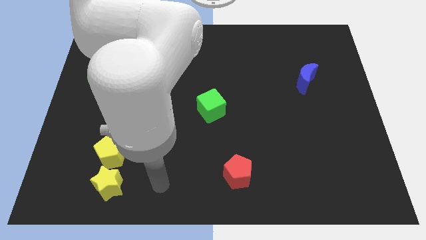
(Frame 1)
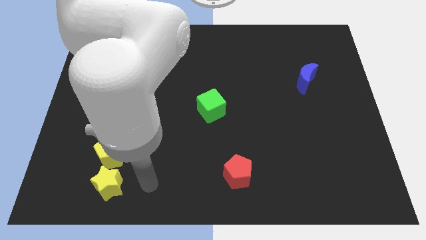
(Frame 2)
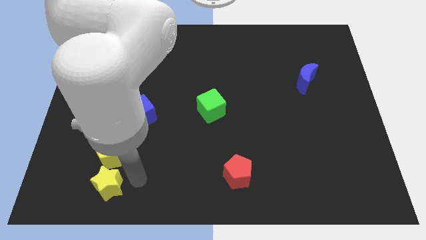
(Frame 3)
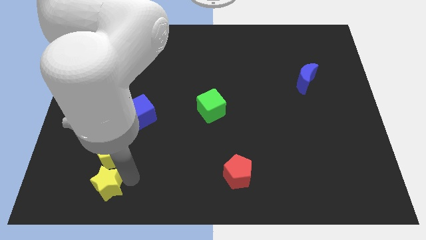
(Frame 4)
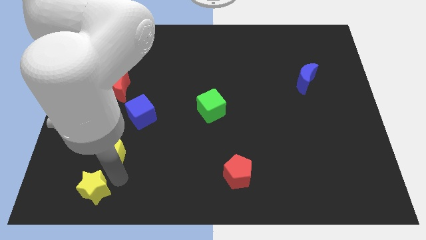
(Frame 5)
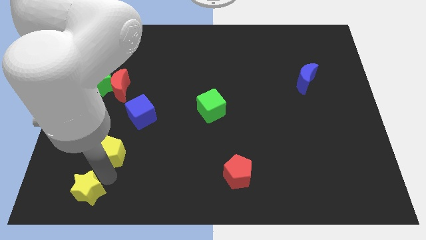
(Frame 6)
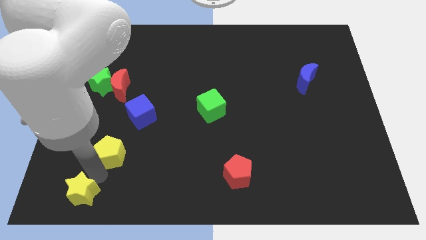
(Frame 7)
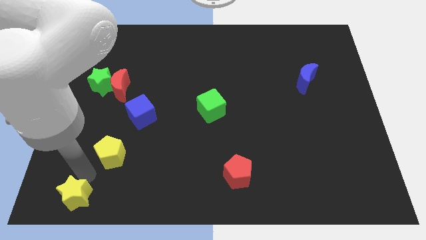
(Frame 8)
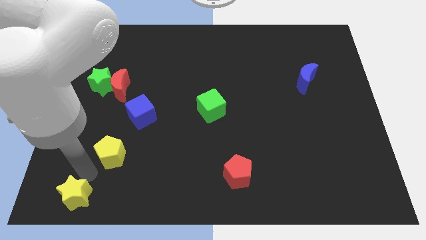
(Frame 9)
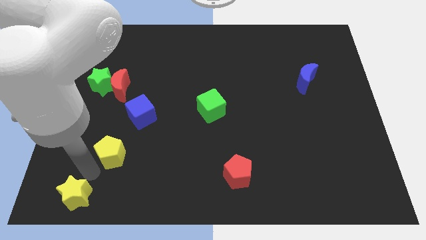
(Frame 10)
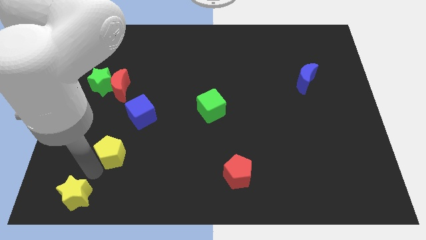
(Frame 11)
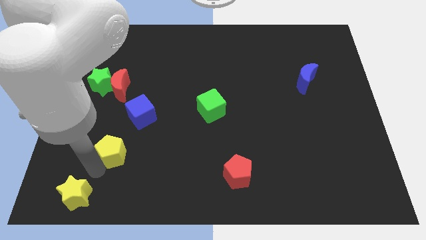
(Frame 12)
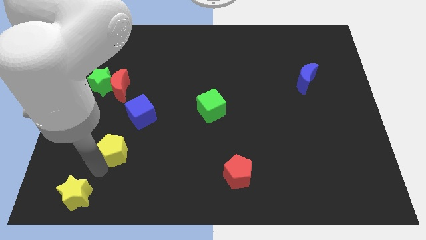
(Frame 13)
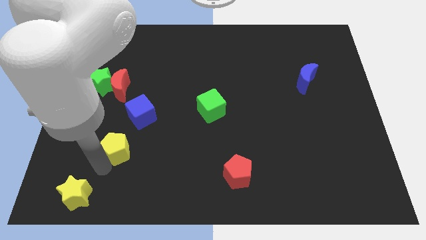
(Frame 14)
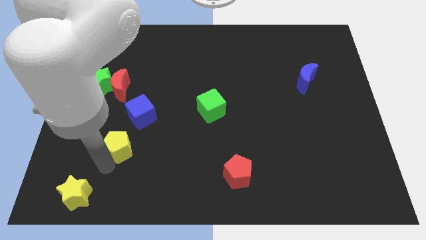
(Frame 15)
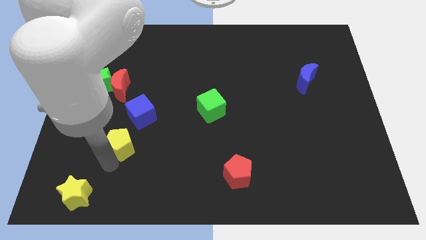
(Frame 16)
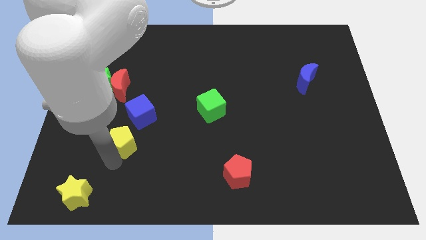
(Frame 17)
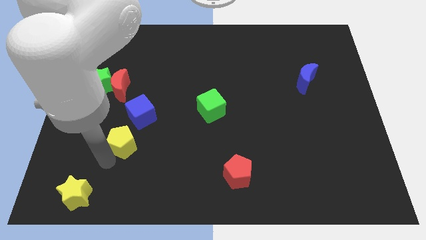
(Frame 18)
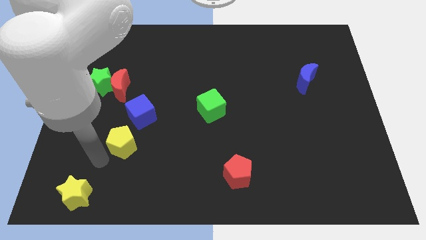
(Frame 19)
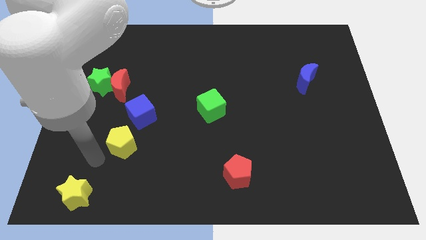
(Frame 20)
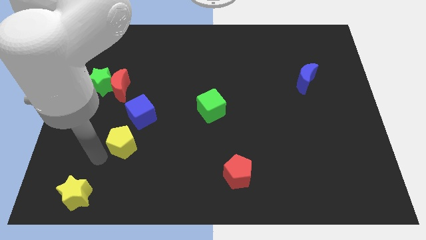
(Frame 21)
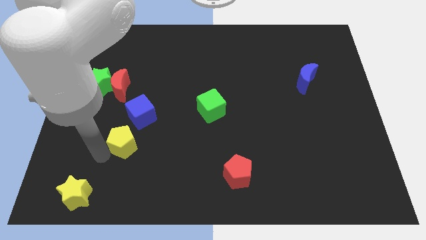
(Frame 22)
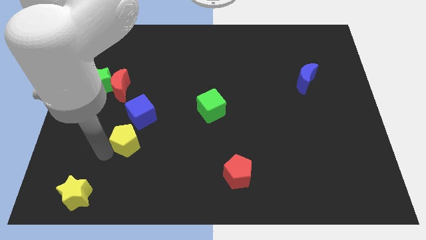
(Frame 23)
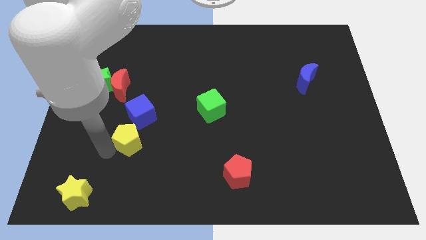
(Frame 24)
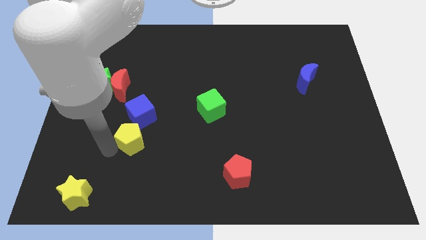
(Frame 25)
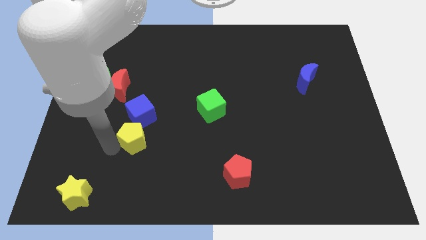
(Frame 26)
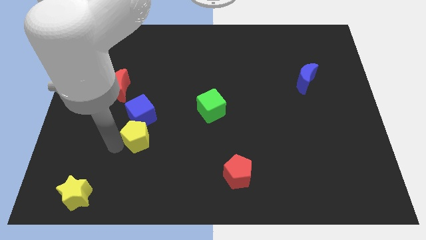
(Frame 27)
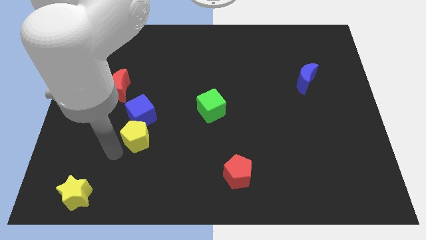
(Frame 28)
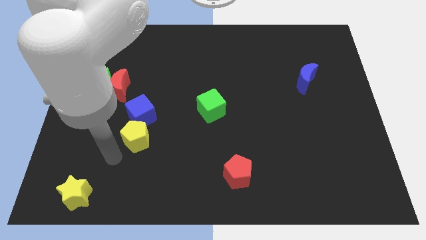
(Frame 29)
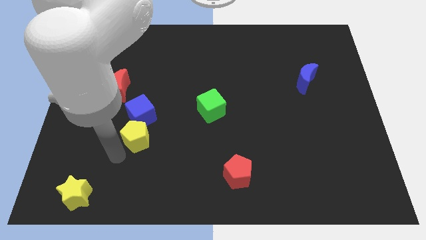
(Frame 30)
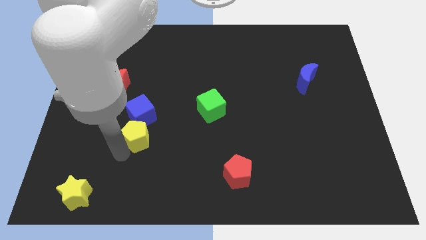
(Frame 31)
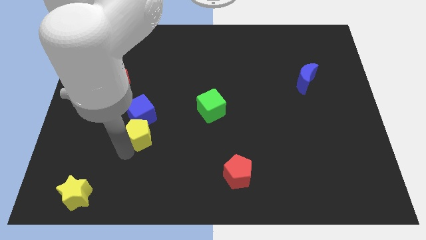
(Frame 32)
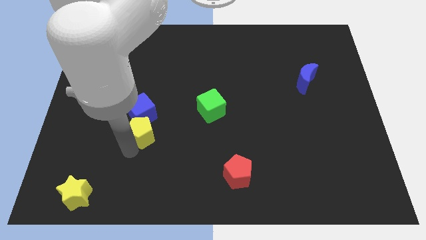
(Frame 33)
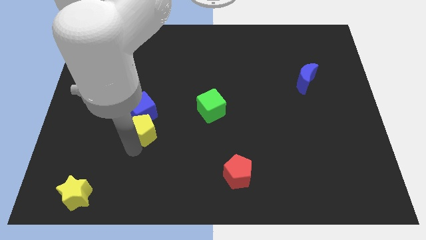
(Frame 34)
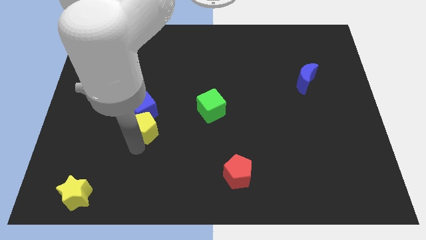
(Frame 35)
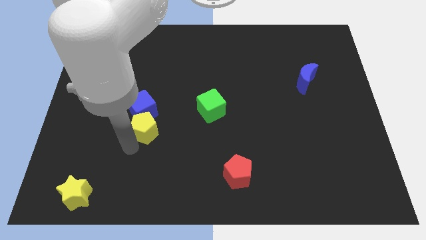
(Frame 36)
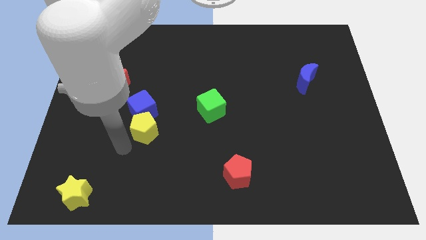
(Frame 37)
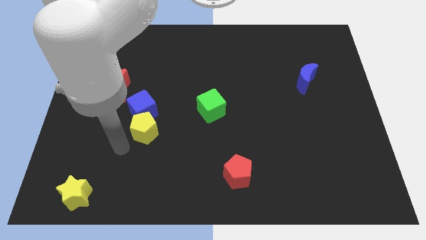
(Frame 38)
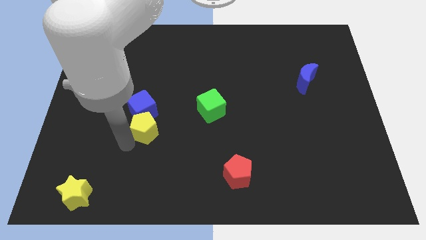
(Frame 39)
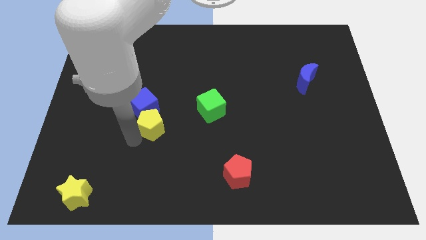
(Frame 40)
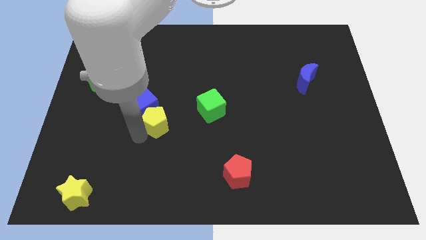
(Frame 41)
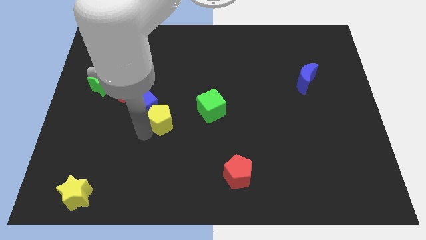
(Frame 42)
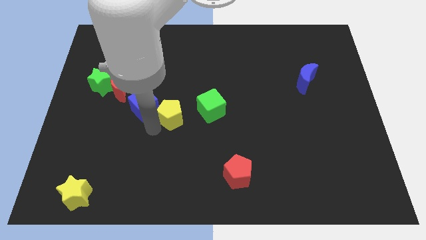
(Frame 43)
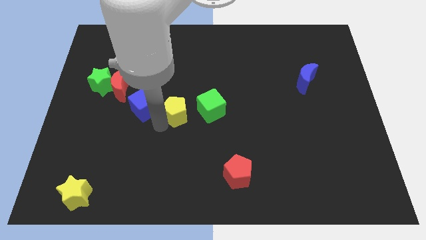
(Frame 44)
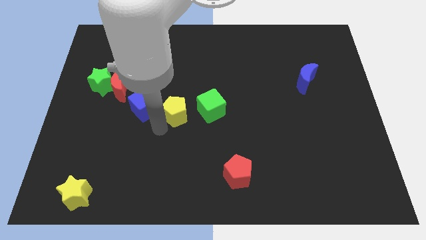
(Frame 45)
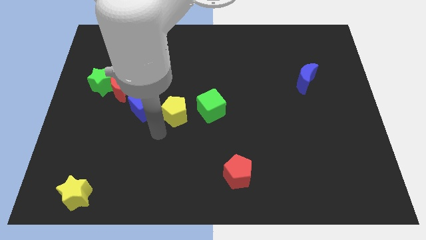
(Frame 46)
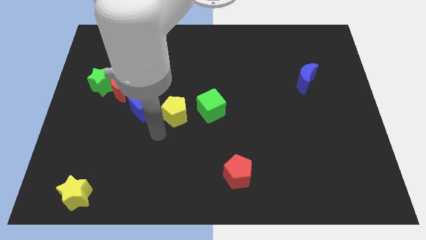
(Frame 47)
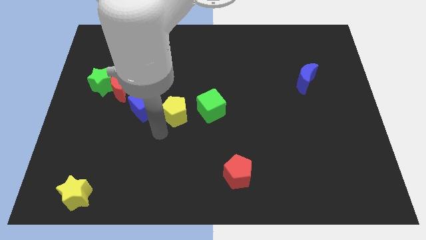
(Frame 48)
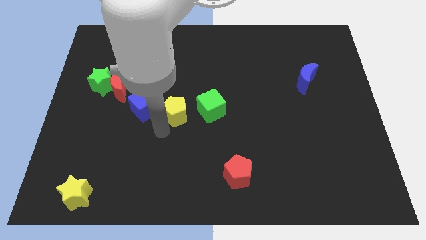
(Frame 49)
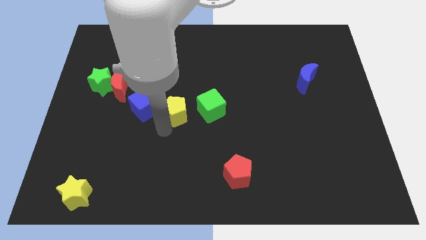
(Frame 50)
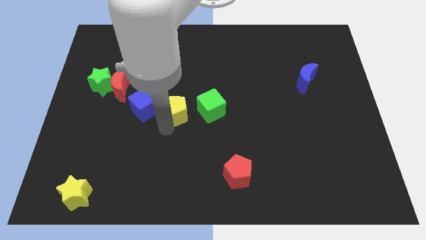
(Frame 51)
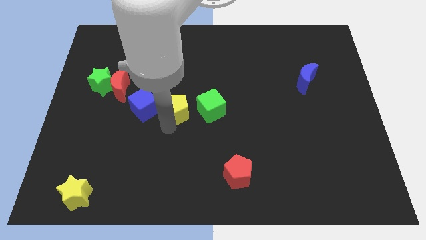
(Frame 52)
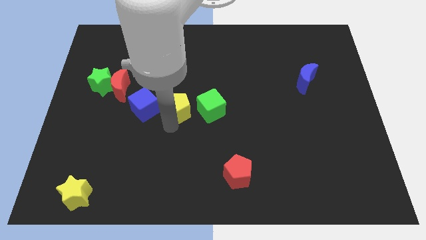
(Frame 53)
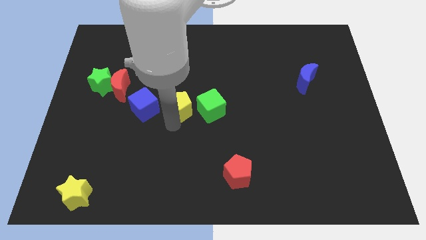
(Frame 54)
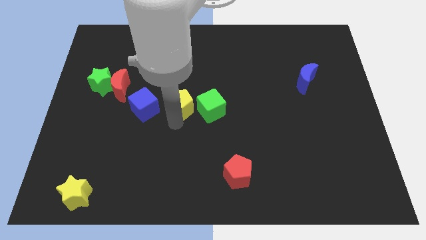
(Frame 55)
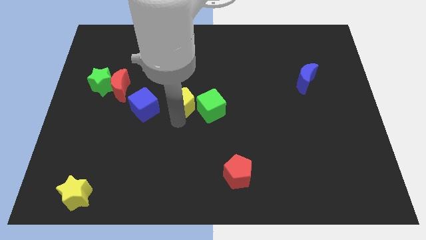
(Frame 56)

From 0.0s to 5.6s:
slide the yellow pentagon upwards and right diagonally

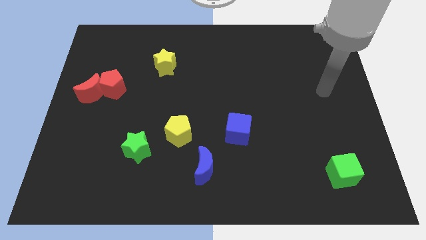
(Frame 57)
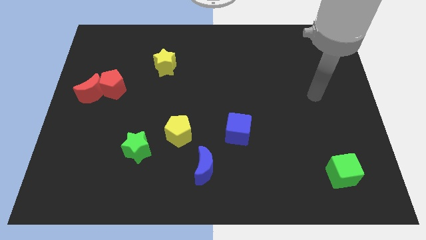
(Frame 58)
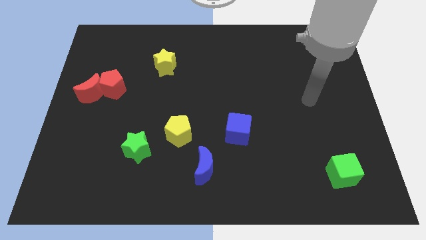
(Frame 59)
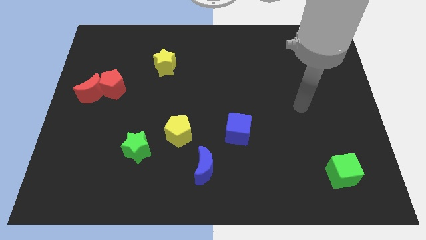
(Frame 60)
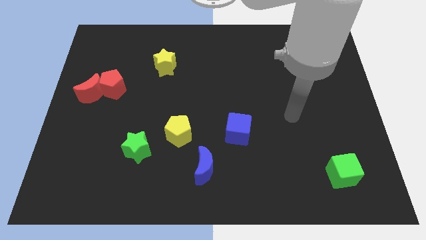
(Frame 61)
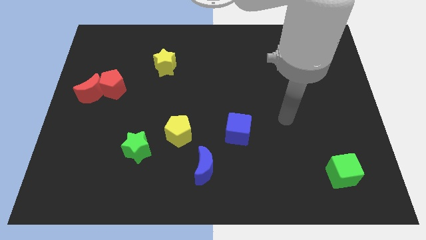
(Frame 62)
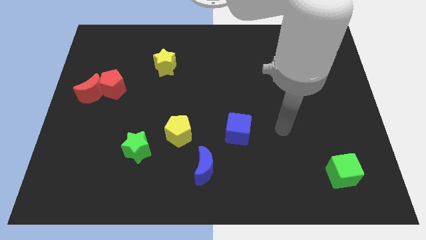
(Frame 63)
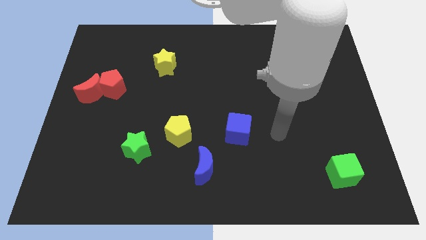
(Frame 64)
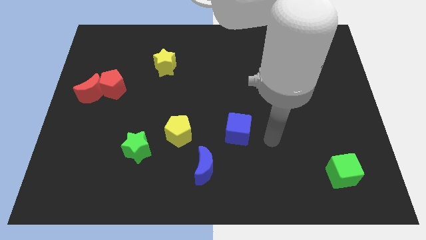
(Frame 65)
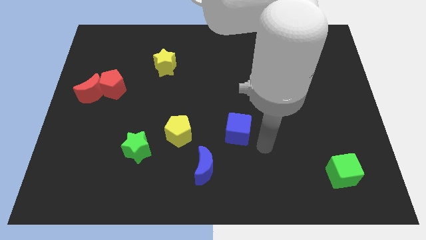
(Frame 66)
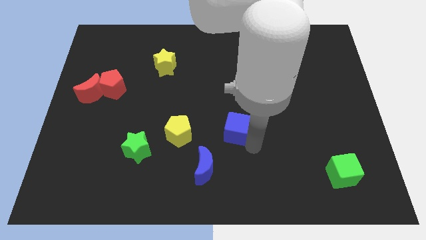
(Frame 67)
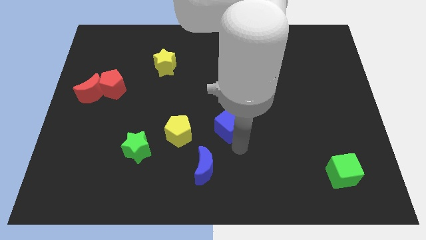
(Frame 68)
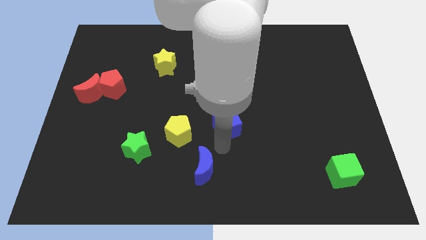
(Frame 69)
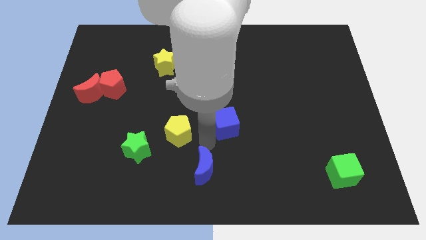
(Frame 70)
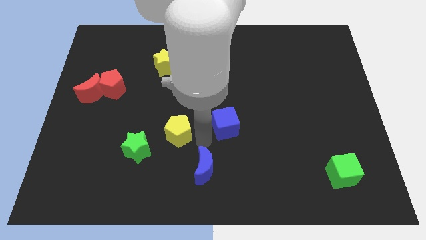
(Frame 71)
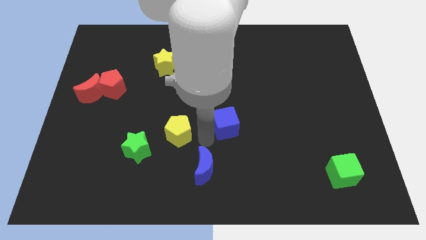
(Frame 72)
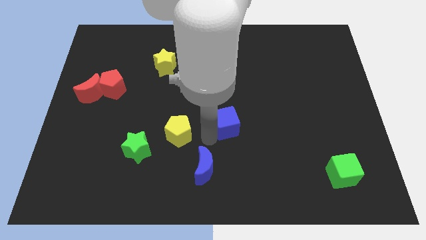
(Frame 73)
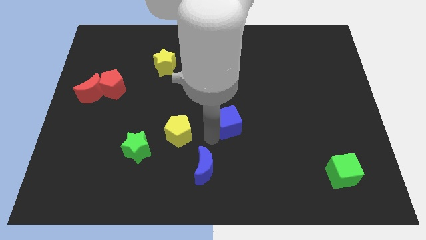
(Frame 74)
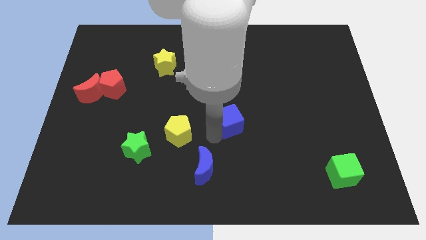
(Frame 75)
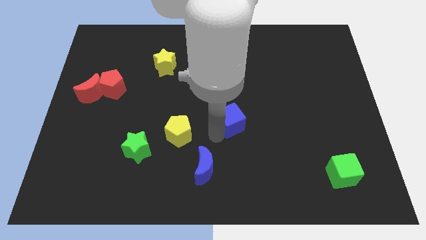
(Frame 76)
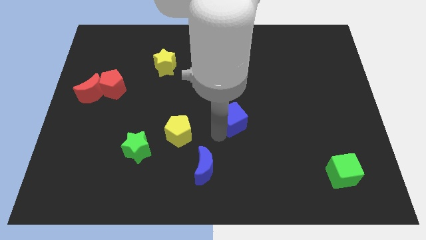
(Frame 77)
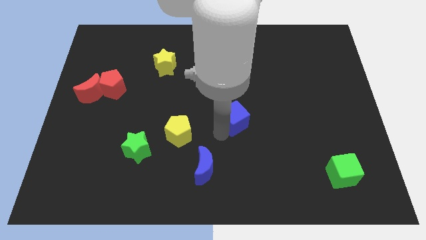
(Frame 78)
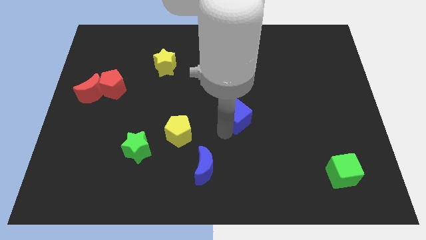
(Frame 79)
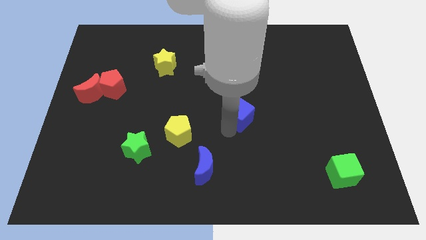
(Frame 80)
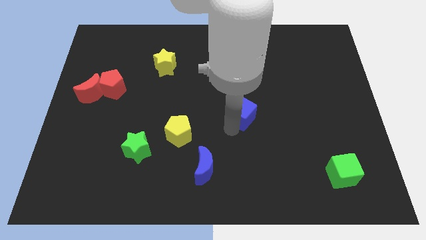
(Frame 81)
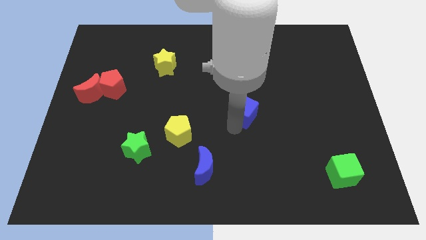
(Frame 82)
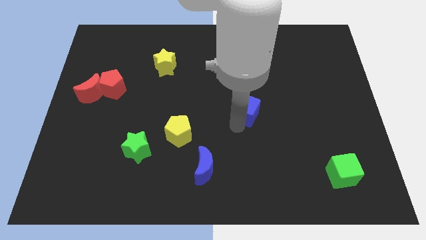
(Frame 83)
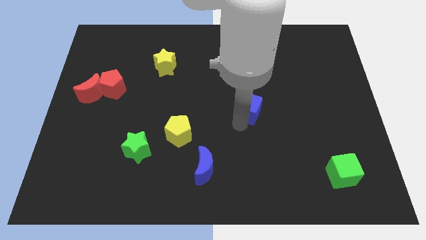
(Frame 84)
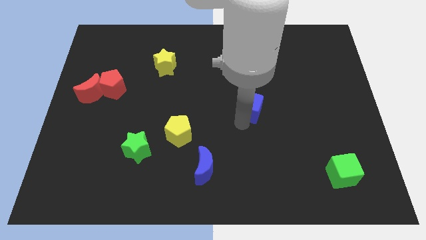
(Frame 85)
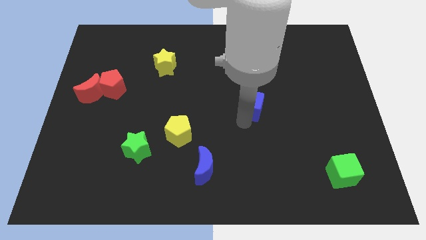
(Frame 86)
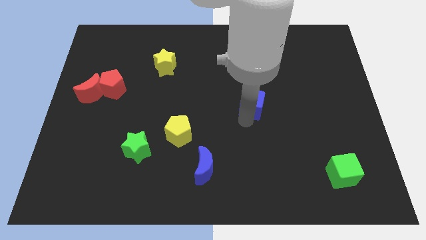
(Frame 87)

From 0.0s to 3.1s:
move the blue cube a little bit up
